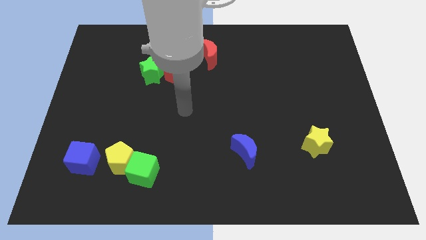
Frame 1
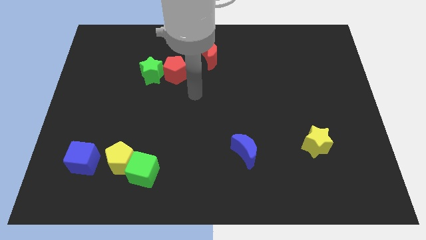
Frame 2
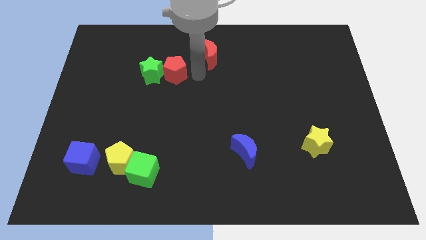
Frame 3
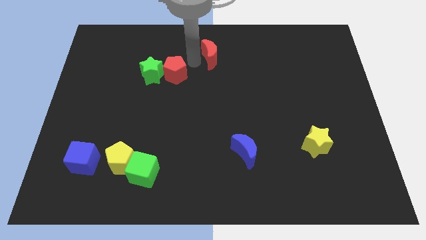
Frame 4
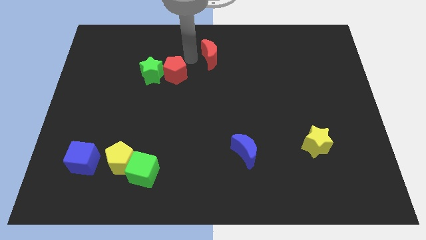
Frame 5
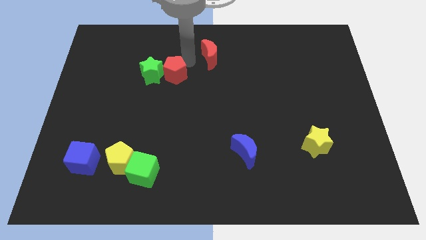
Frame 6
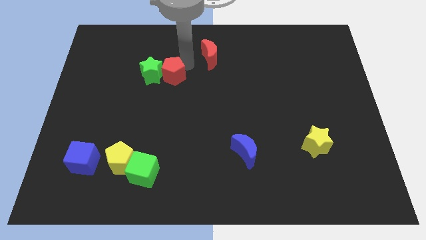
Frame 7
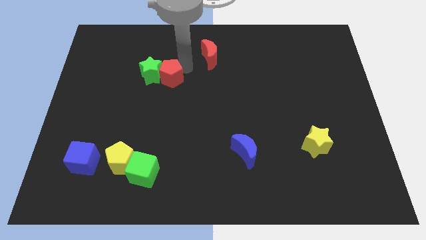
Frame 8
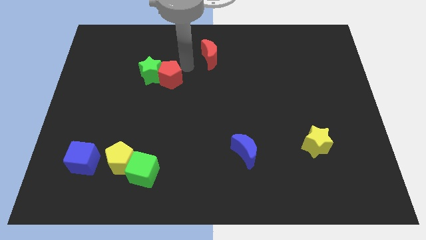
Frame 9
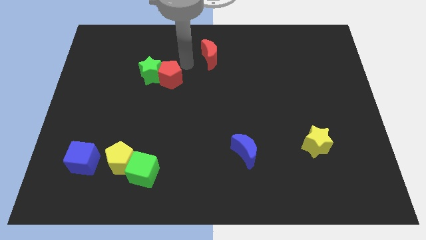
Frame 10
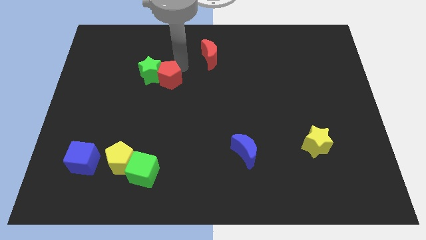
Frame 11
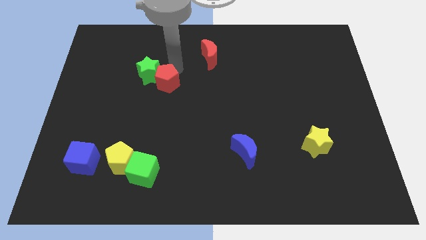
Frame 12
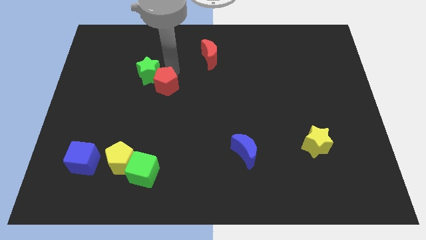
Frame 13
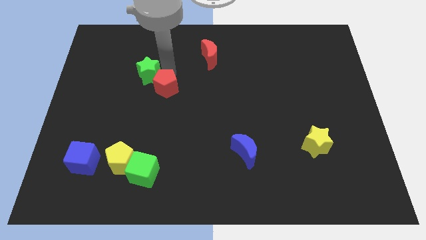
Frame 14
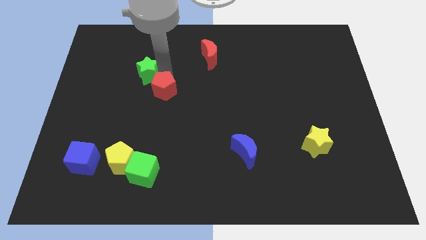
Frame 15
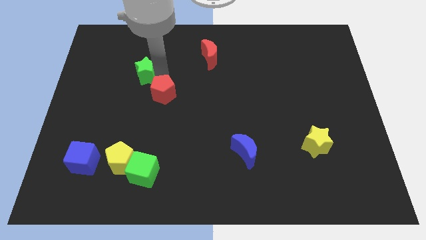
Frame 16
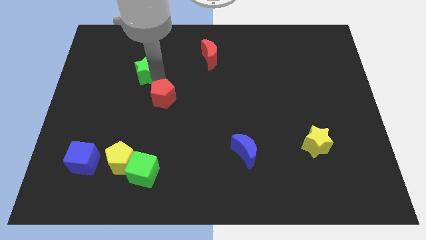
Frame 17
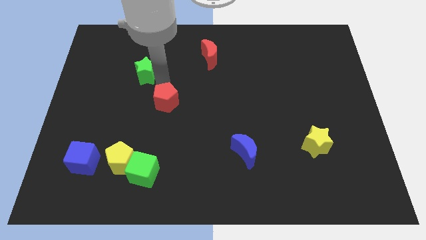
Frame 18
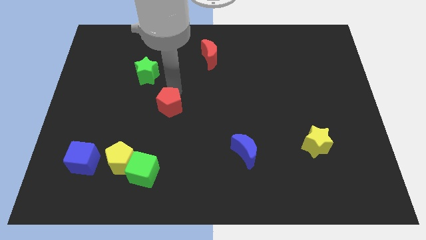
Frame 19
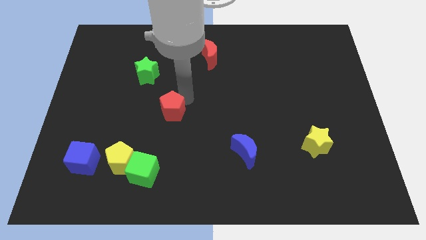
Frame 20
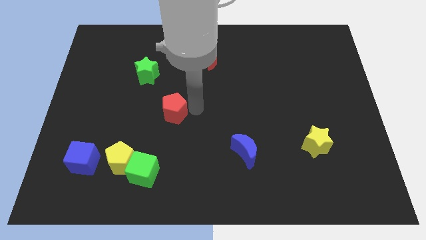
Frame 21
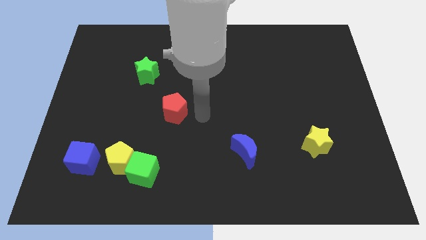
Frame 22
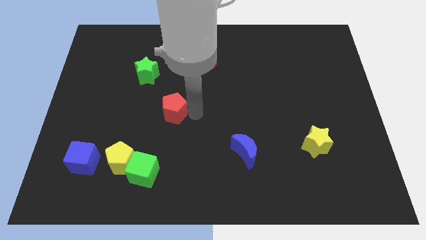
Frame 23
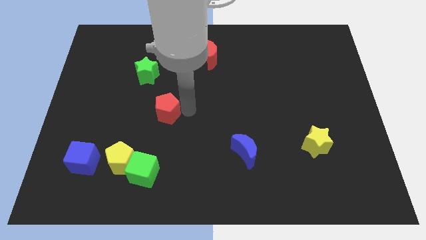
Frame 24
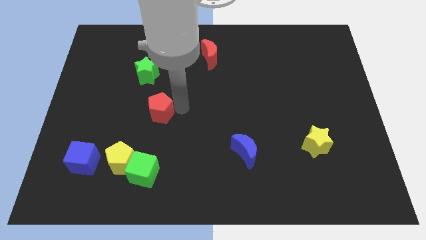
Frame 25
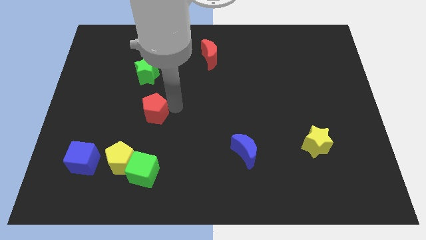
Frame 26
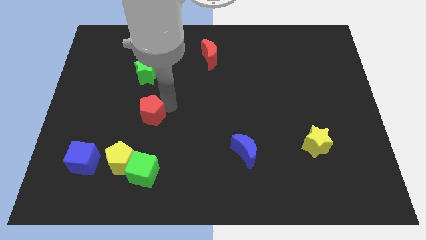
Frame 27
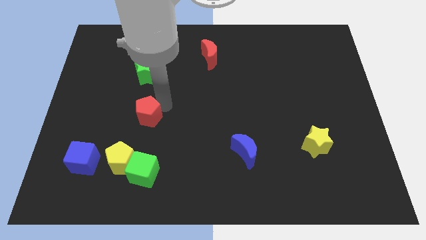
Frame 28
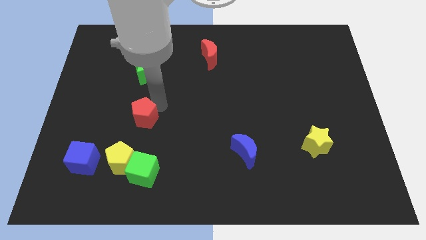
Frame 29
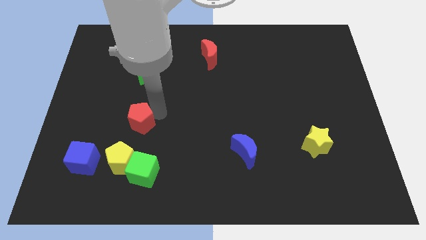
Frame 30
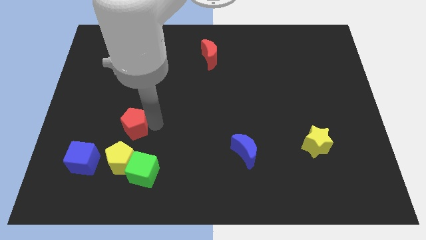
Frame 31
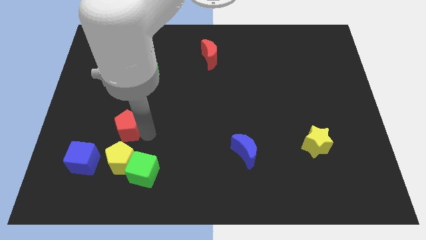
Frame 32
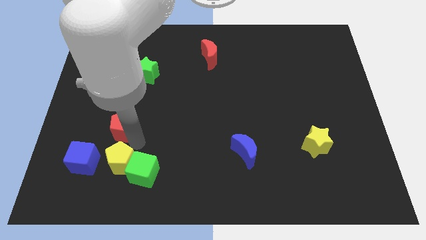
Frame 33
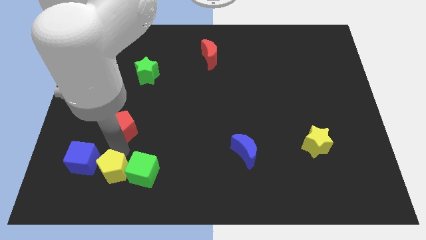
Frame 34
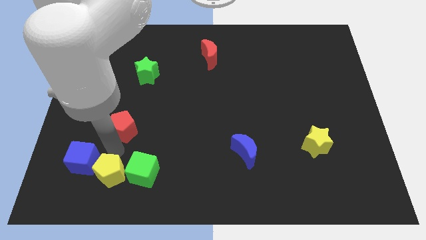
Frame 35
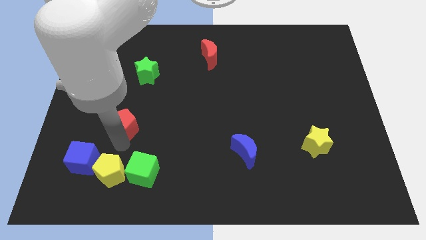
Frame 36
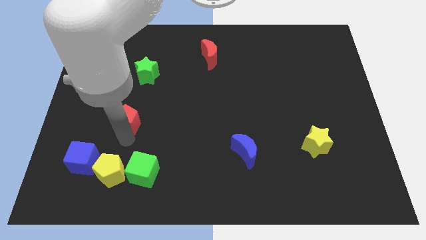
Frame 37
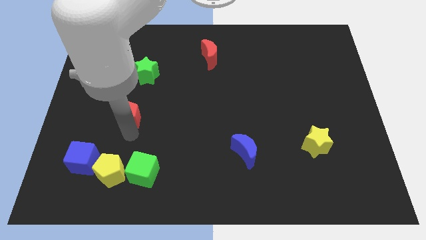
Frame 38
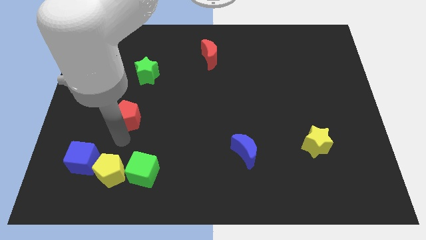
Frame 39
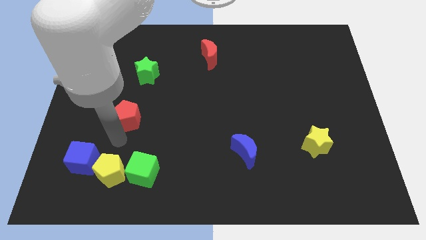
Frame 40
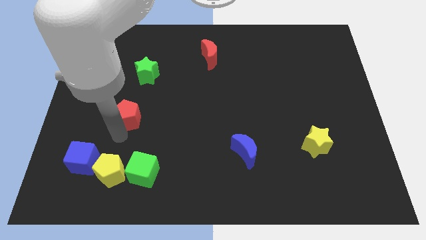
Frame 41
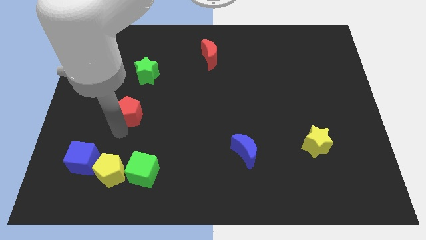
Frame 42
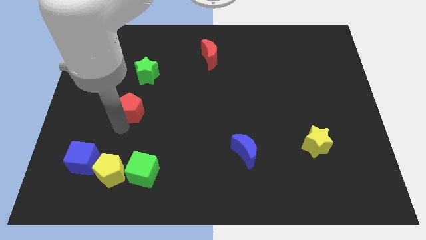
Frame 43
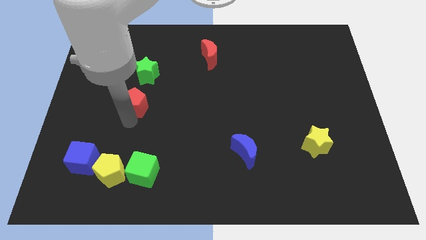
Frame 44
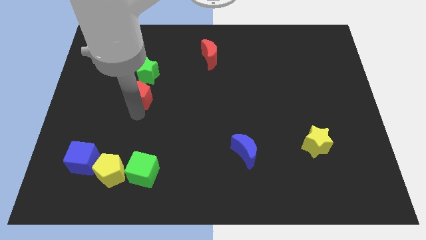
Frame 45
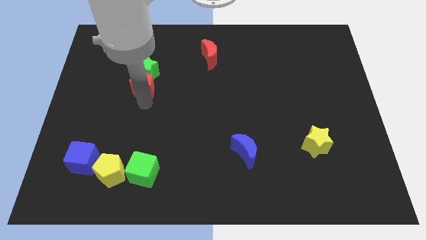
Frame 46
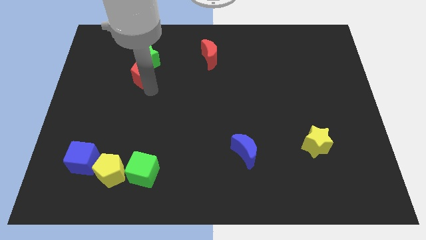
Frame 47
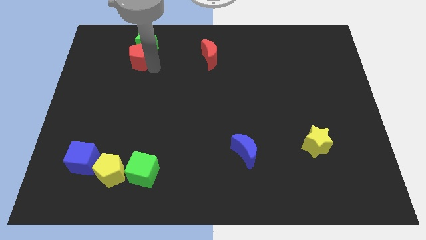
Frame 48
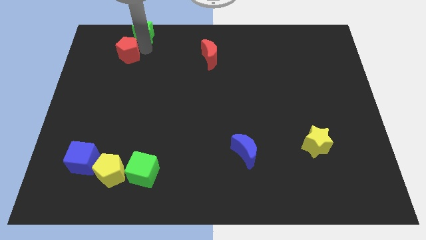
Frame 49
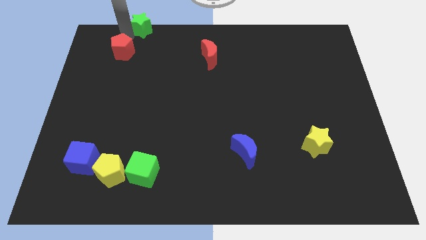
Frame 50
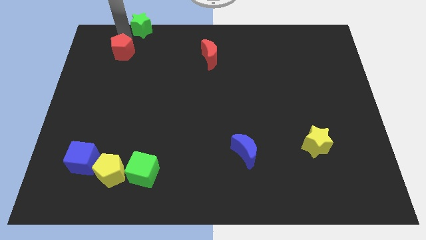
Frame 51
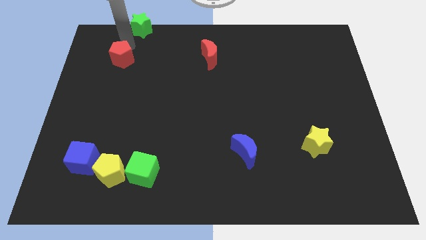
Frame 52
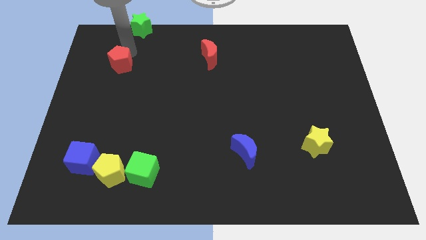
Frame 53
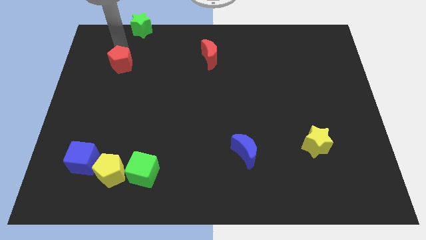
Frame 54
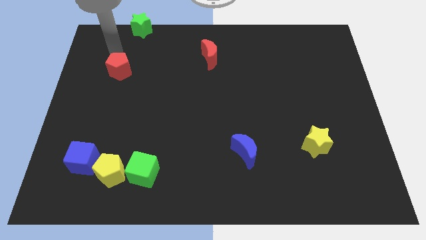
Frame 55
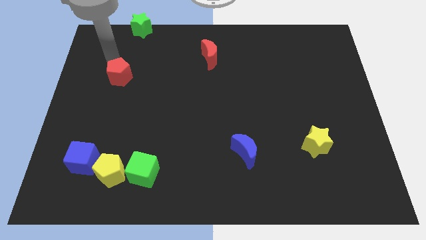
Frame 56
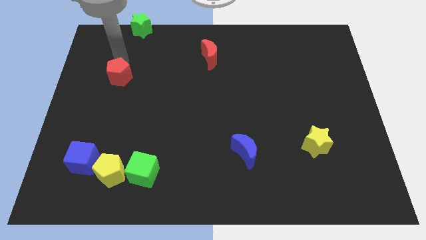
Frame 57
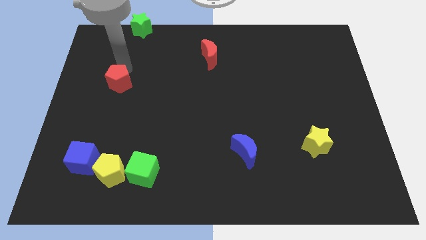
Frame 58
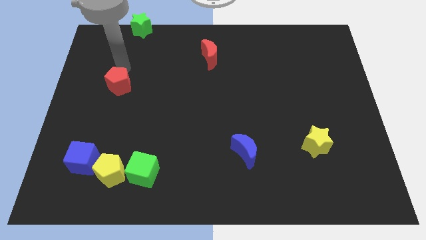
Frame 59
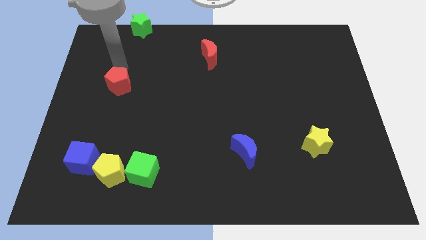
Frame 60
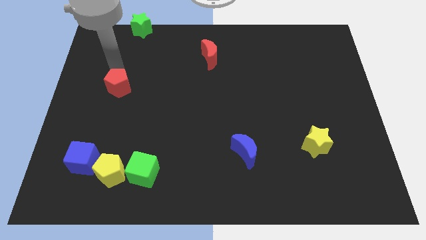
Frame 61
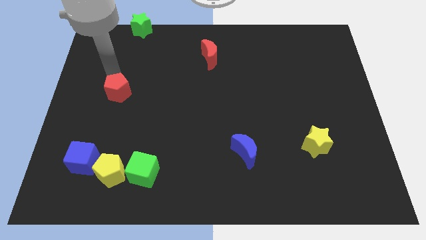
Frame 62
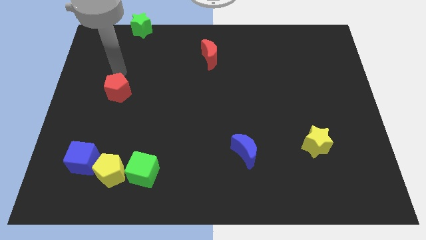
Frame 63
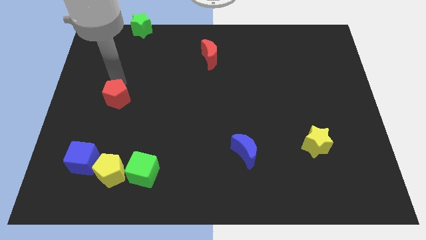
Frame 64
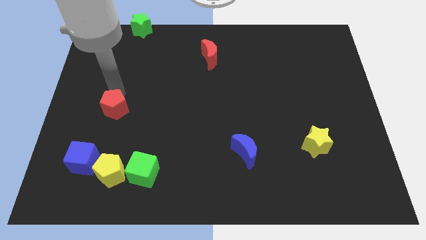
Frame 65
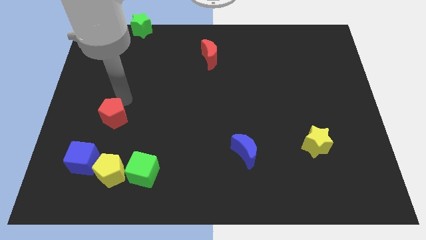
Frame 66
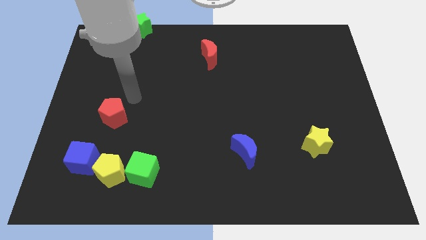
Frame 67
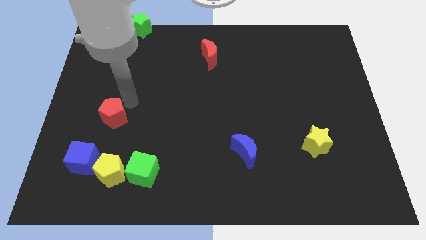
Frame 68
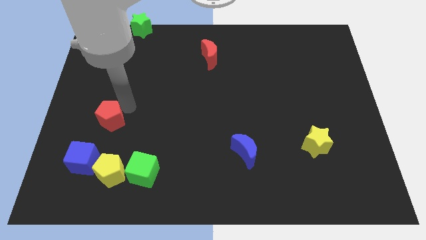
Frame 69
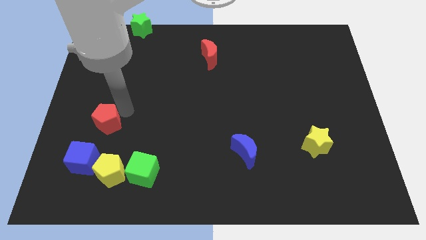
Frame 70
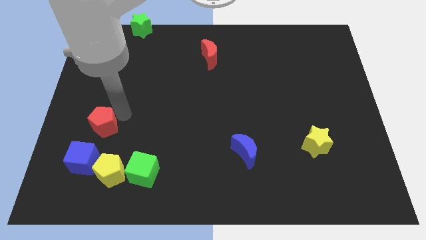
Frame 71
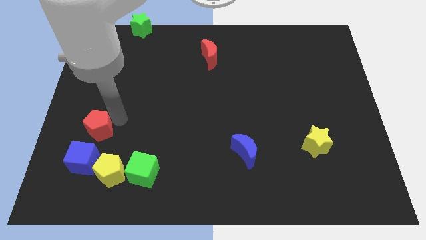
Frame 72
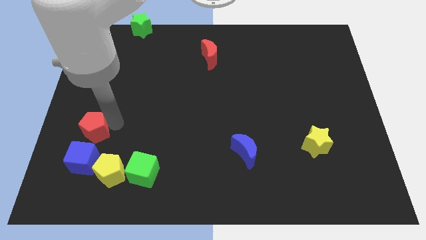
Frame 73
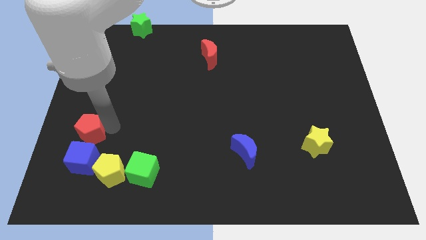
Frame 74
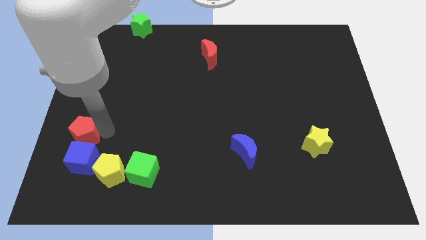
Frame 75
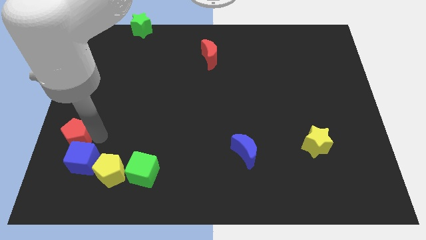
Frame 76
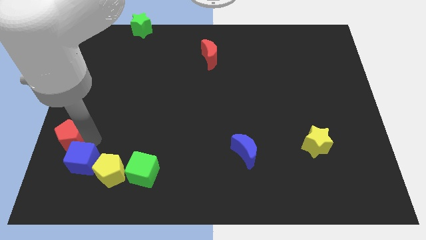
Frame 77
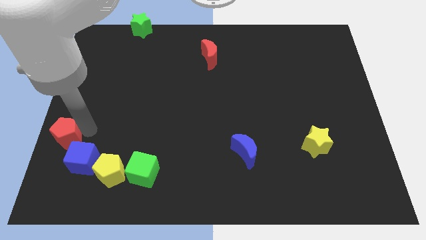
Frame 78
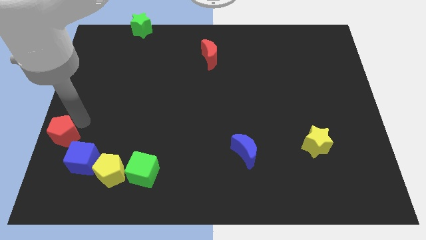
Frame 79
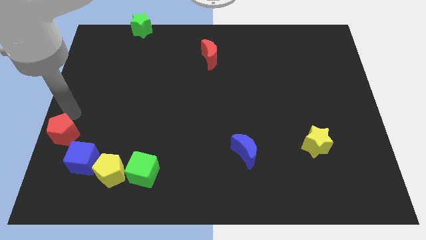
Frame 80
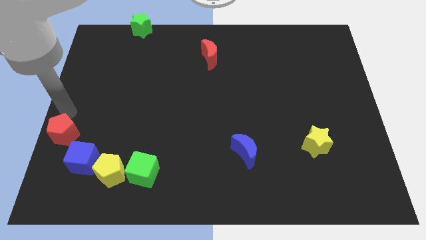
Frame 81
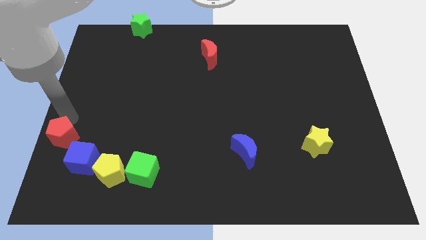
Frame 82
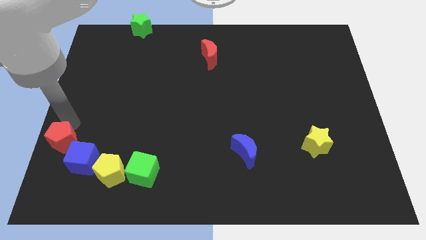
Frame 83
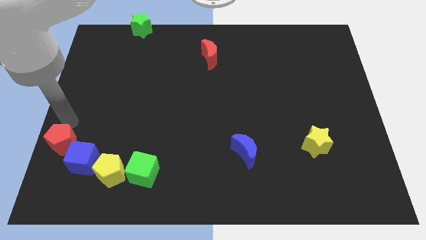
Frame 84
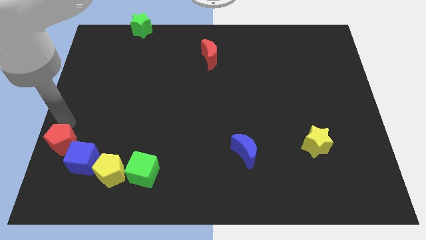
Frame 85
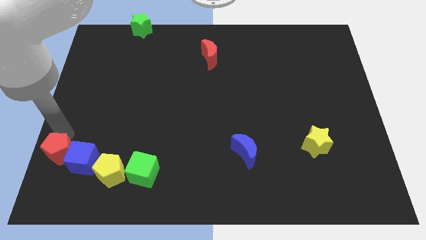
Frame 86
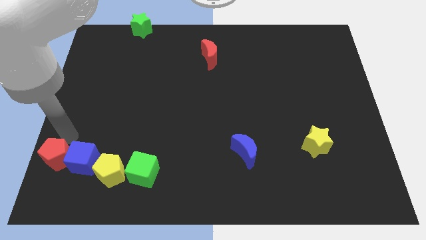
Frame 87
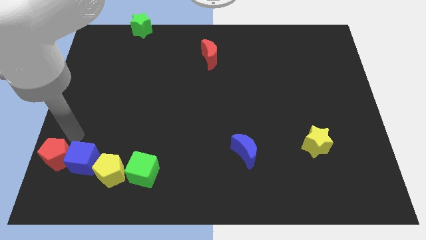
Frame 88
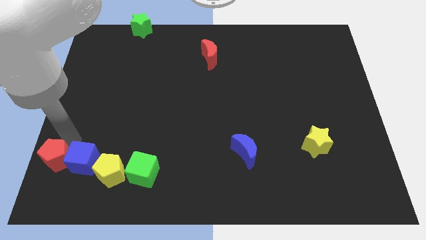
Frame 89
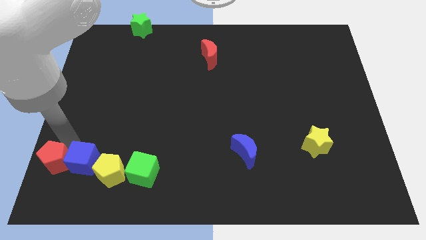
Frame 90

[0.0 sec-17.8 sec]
push the red pentagon to the bottom left of the board
